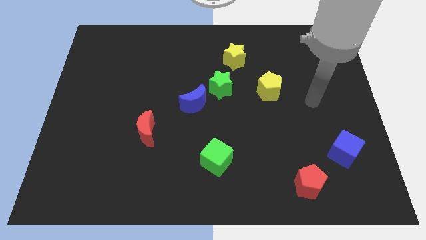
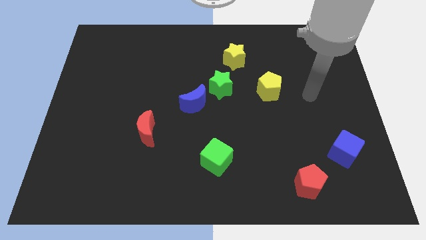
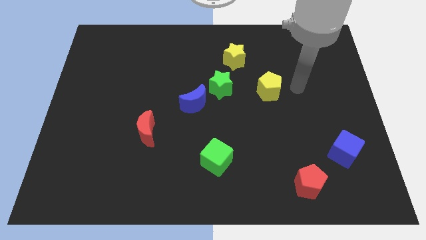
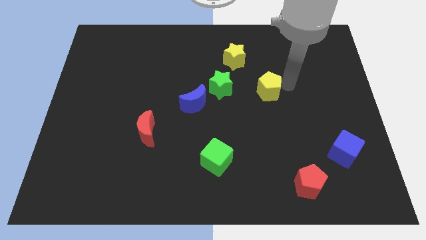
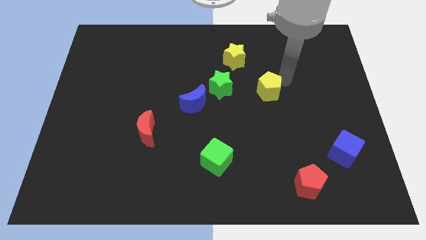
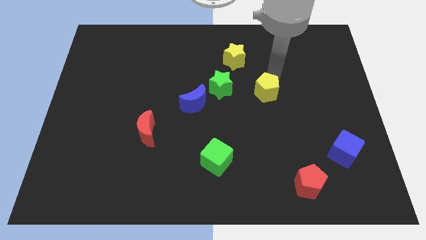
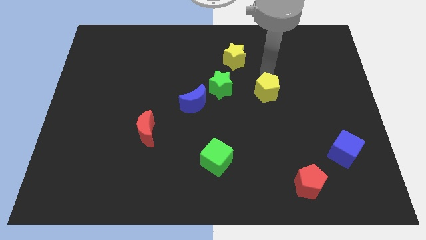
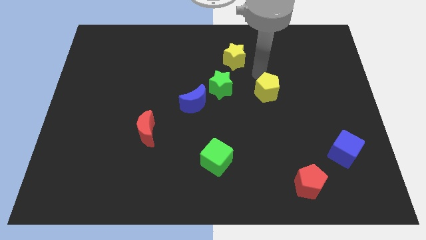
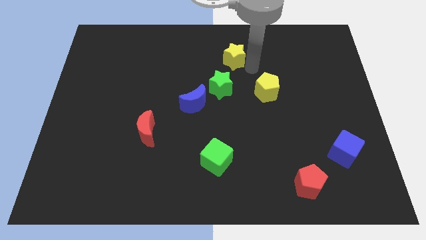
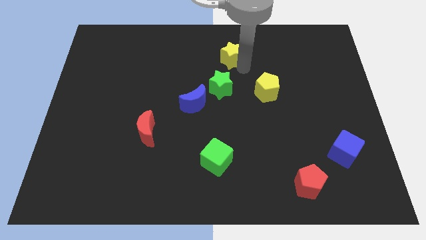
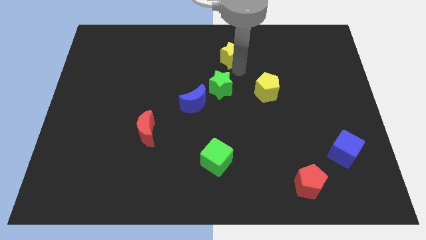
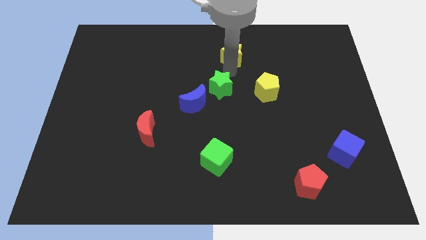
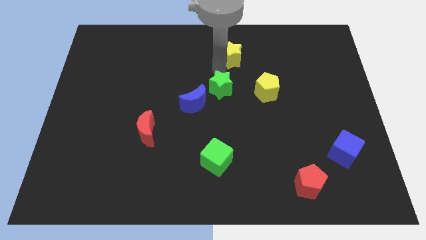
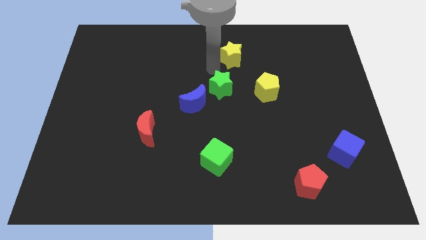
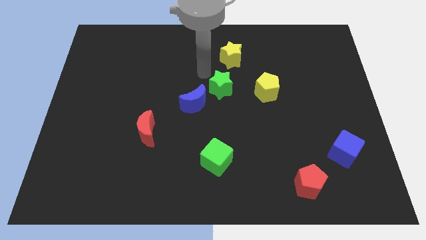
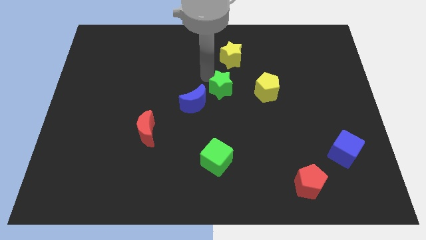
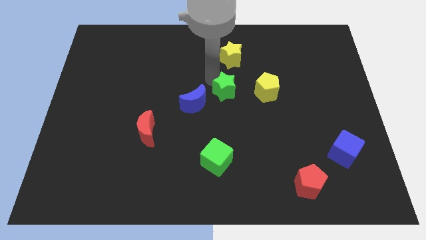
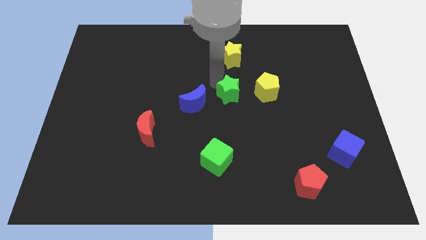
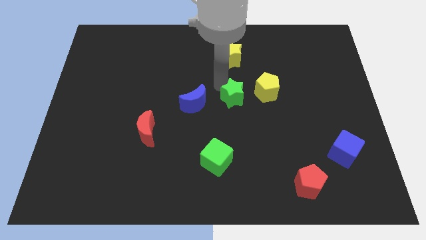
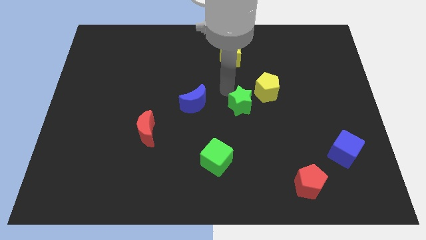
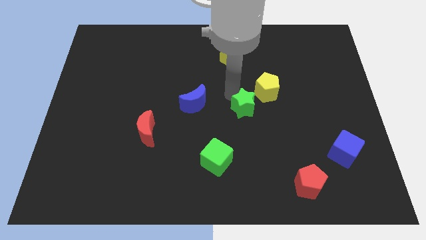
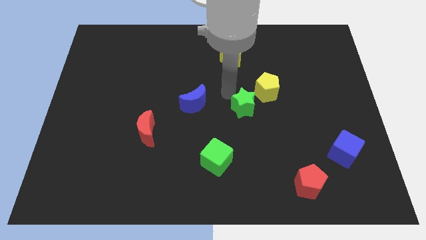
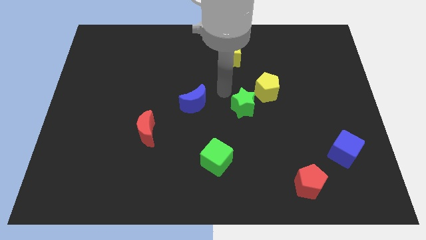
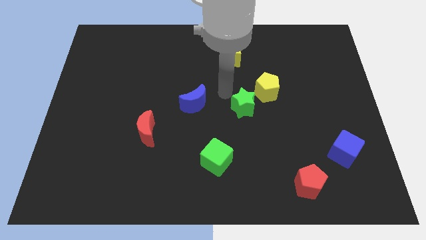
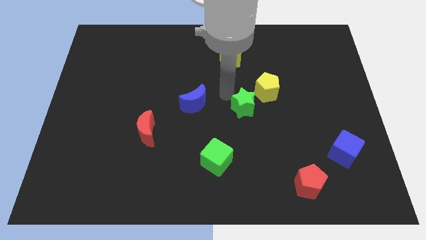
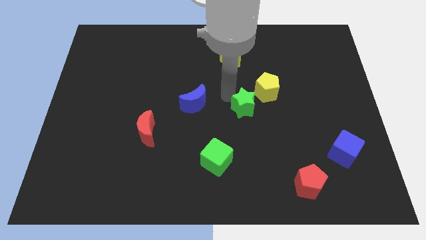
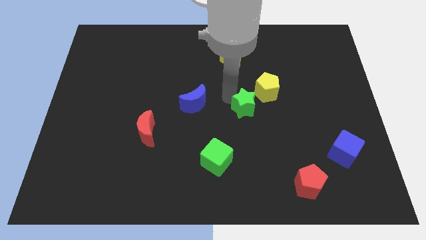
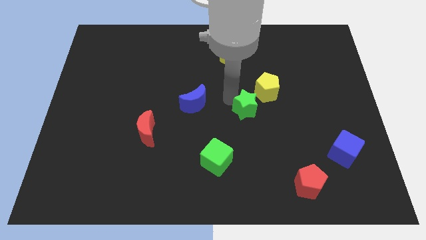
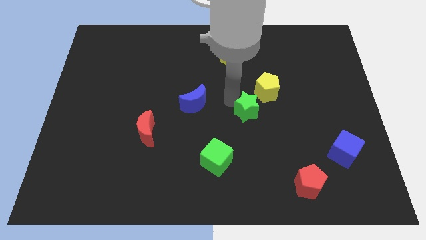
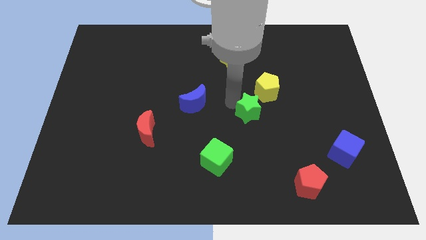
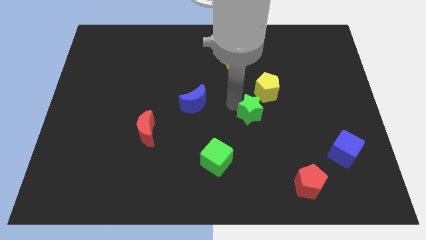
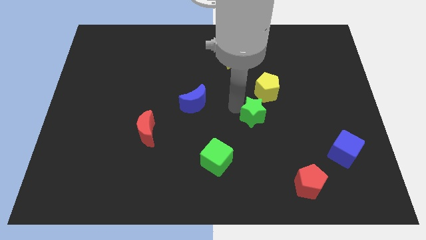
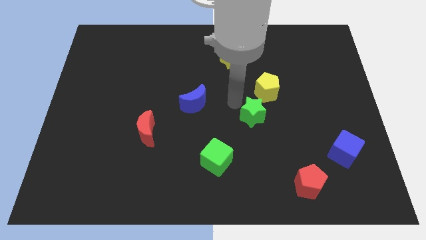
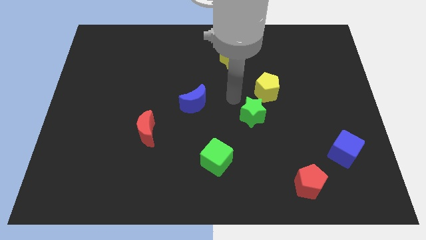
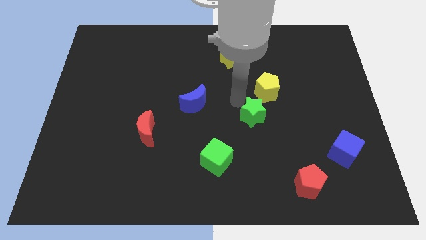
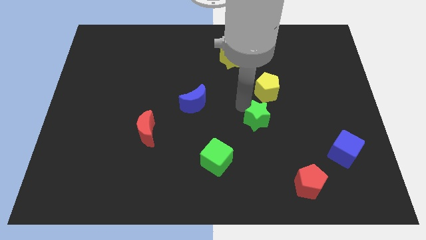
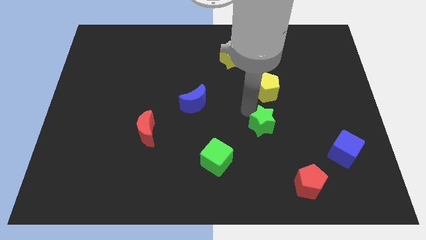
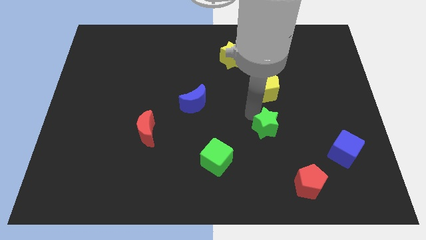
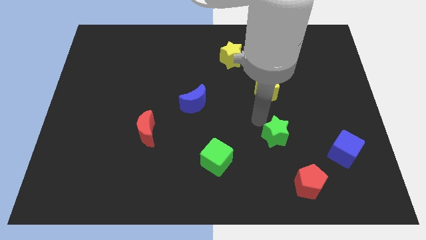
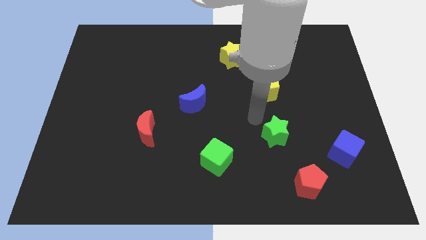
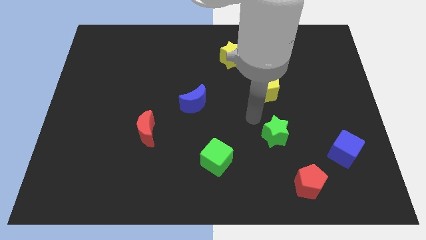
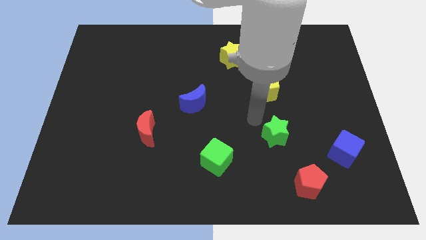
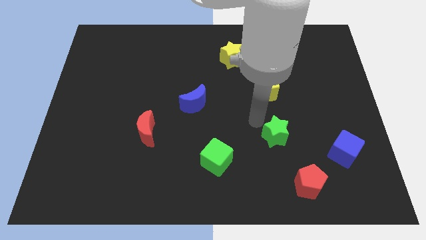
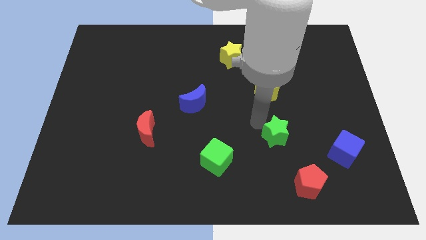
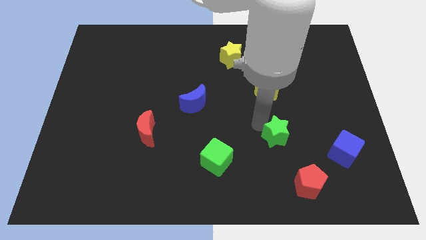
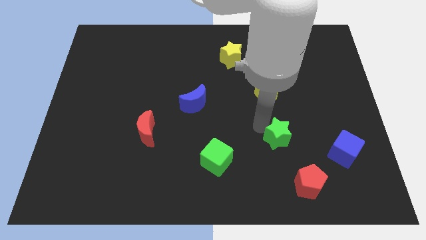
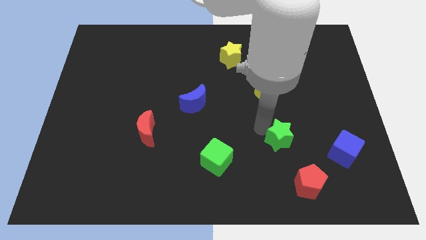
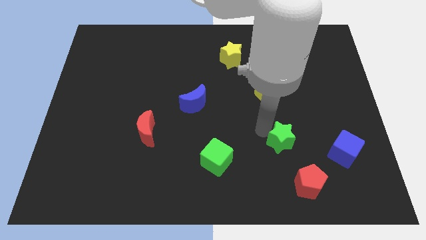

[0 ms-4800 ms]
slide the green star downwards and to the right diagonally

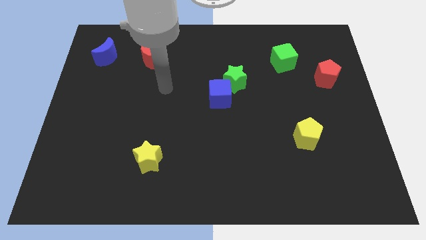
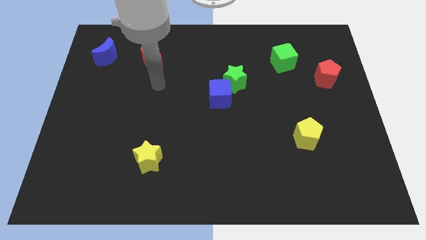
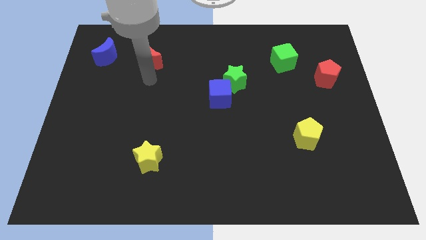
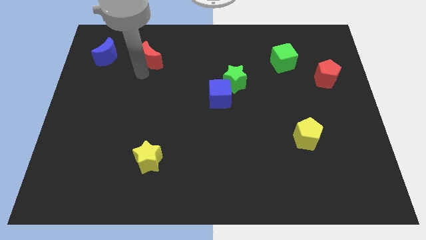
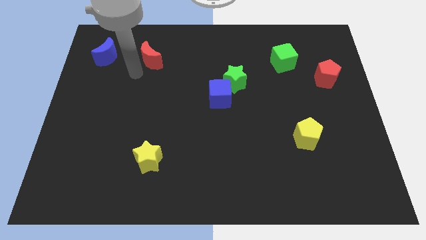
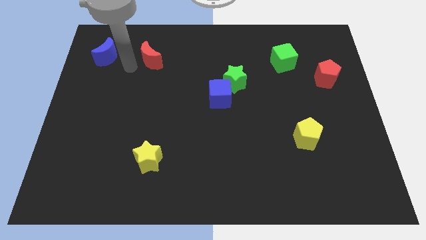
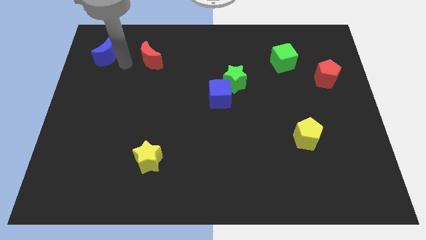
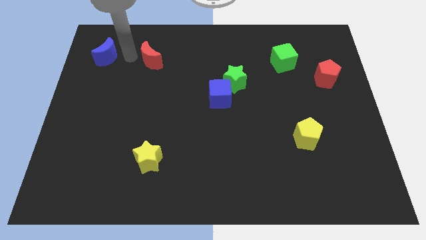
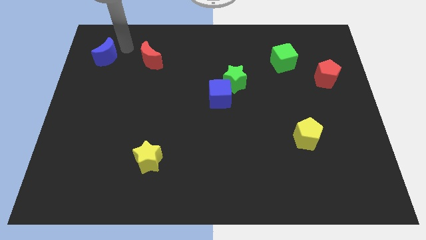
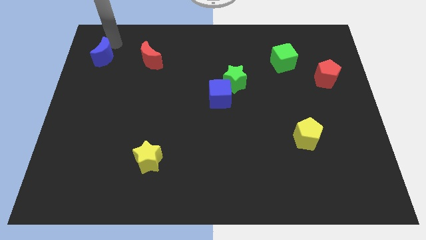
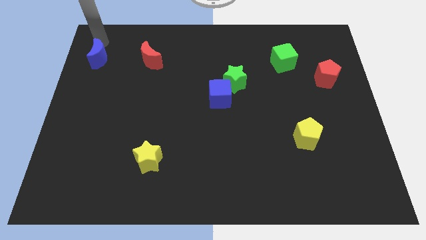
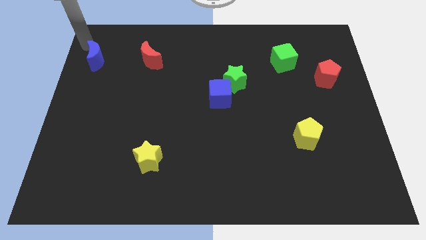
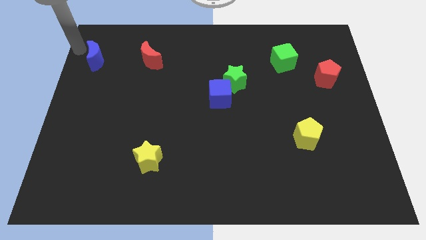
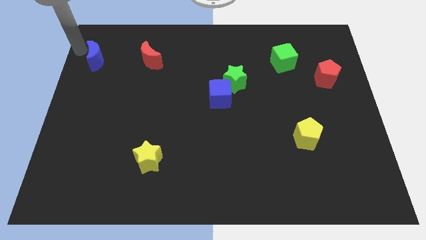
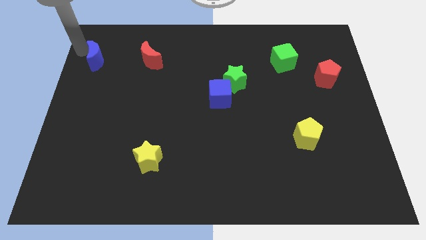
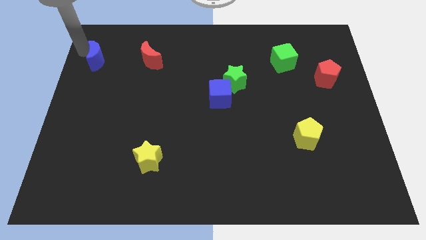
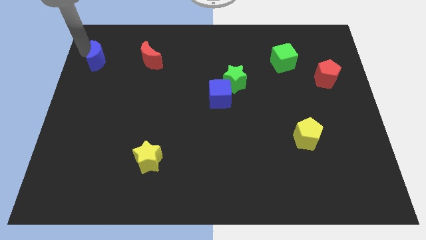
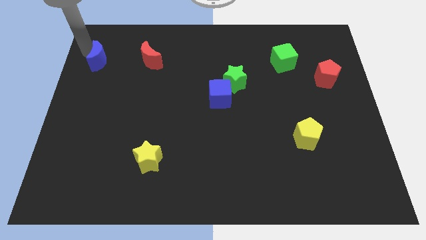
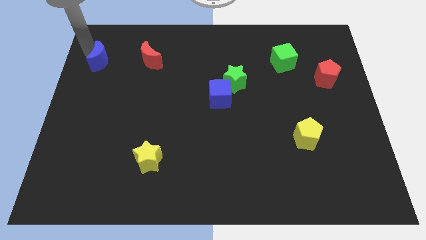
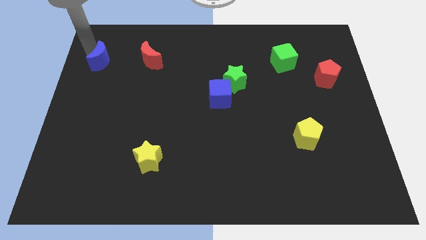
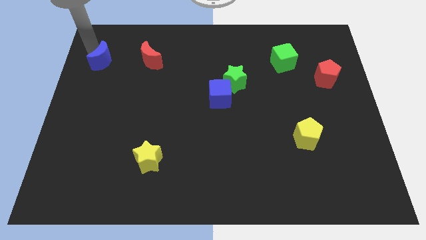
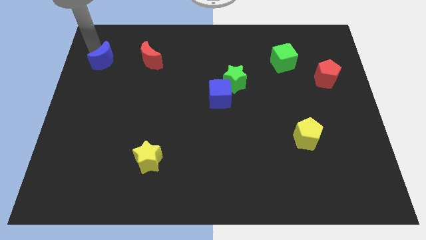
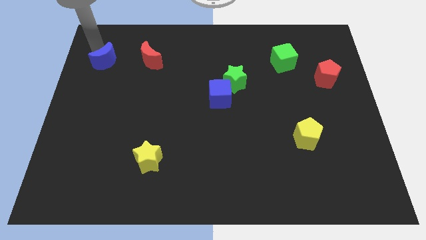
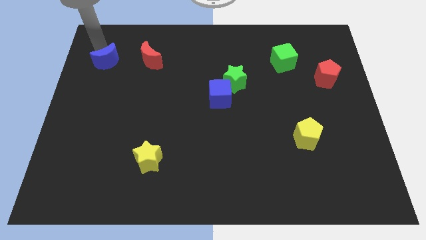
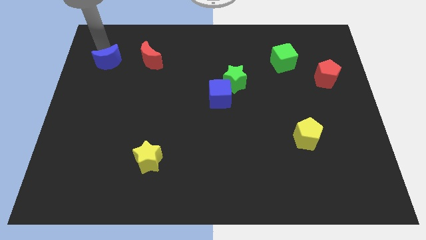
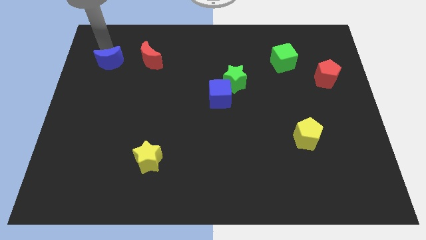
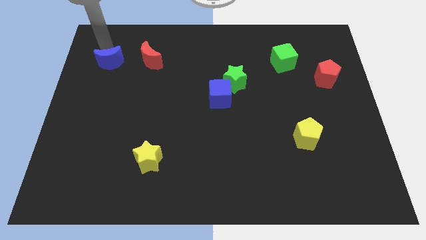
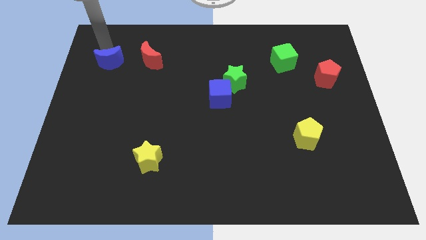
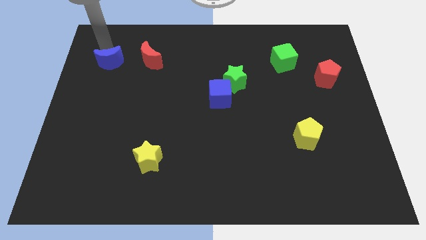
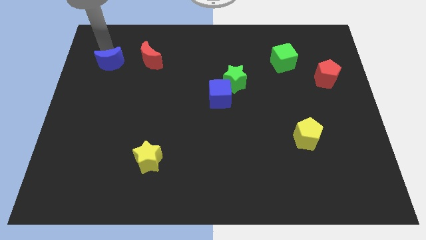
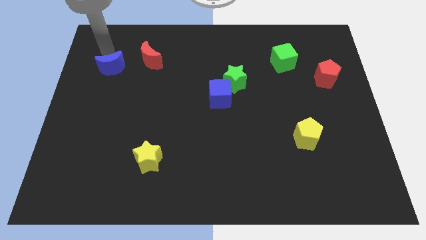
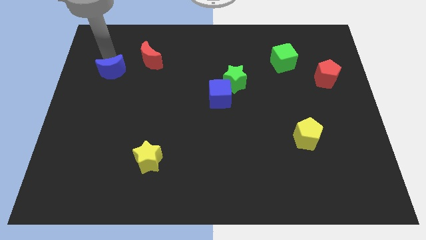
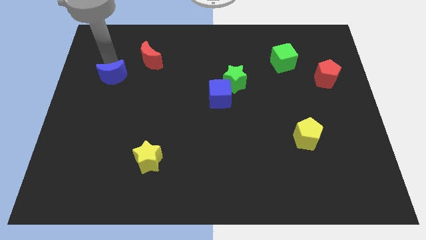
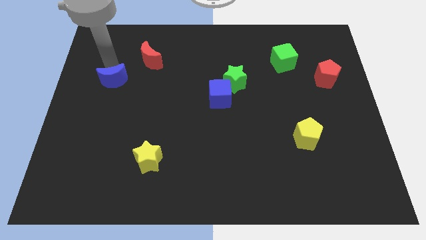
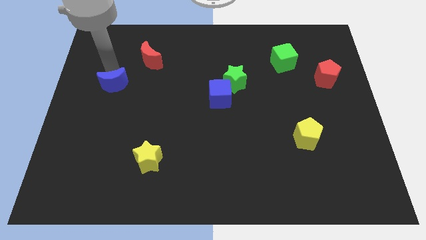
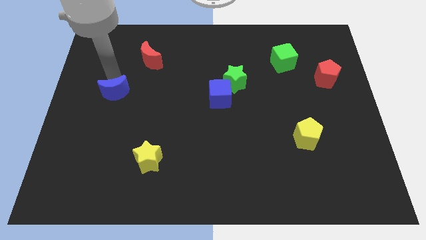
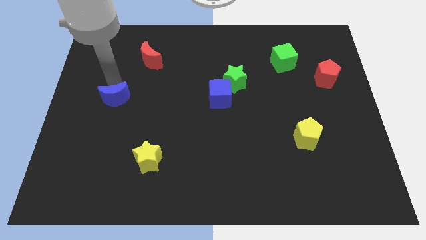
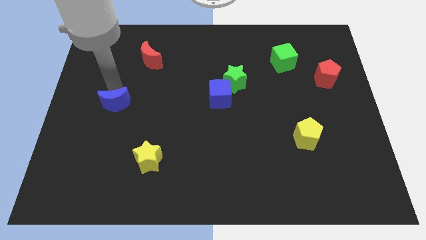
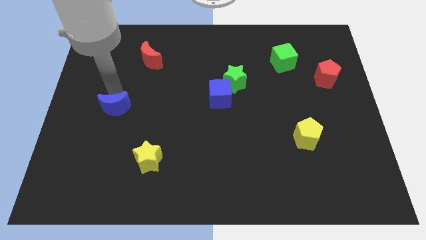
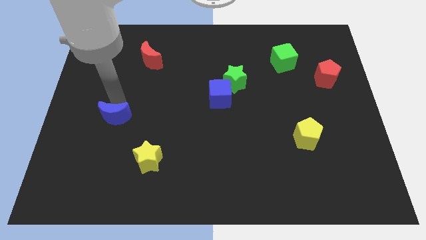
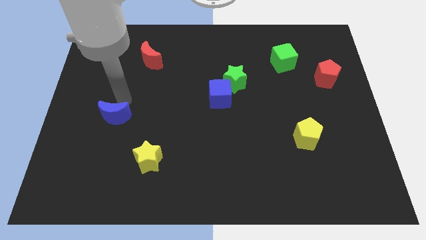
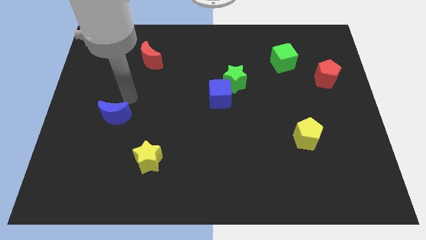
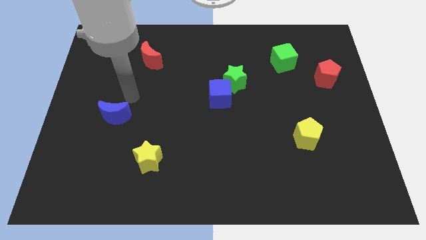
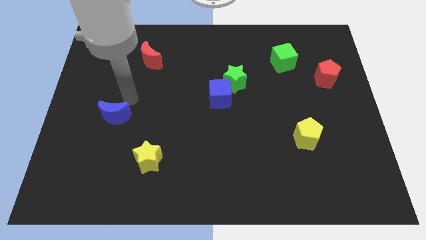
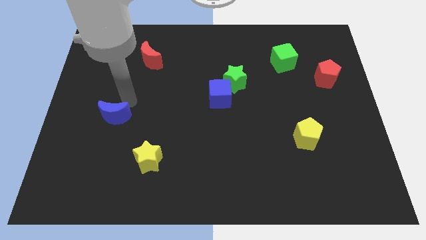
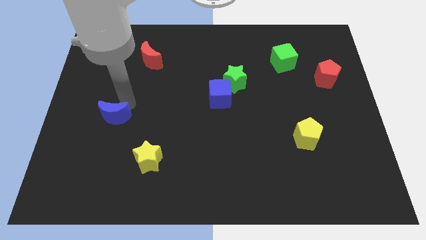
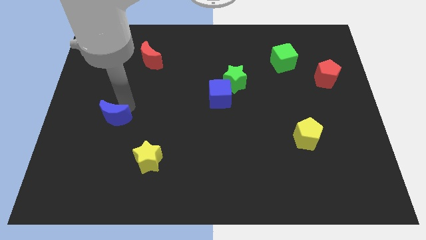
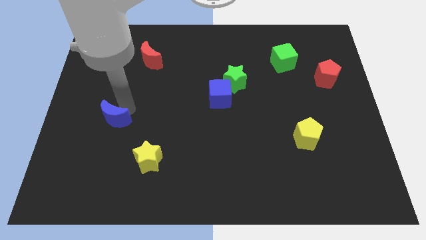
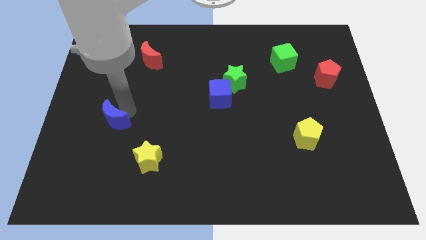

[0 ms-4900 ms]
slide the blue moon downwards
